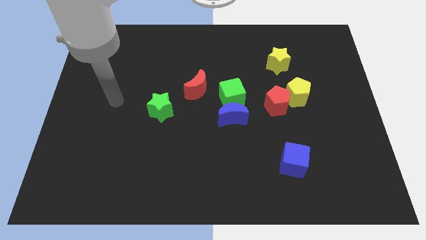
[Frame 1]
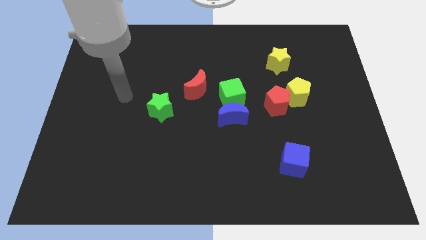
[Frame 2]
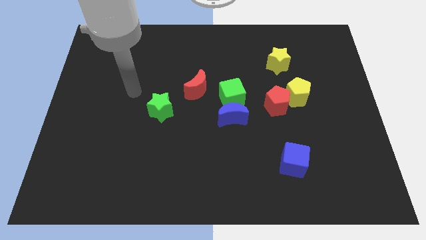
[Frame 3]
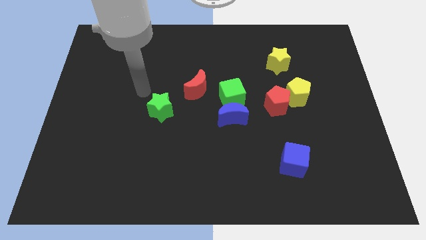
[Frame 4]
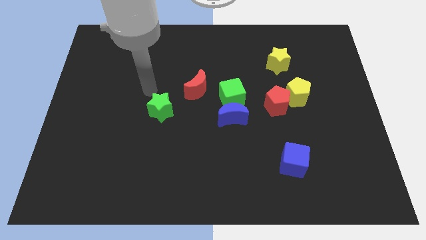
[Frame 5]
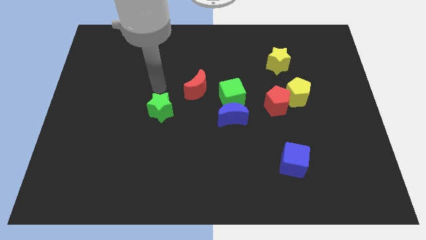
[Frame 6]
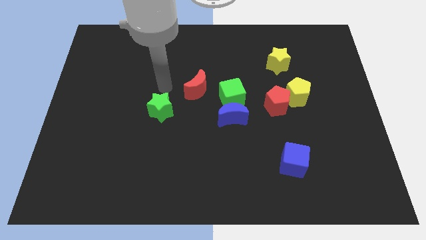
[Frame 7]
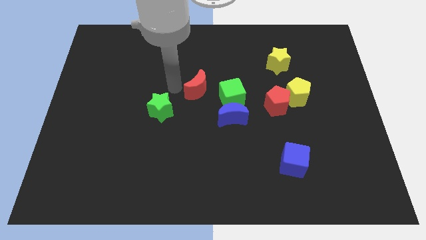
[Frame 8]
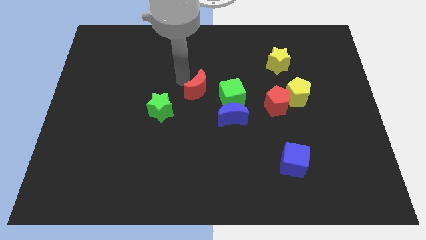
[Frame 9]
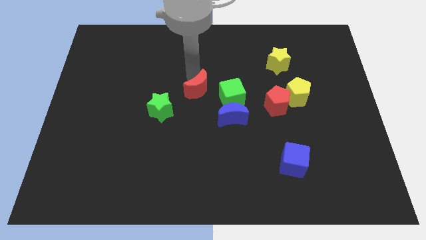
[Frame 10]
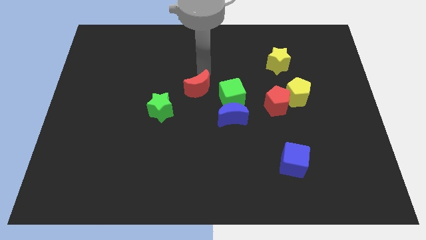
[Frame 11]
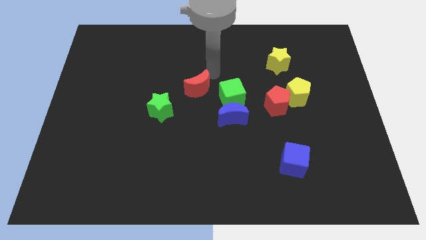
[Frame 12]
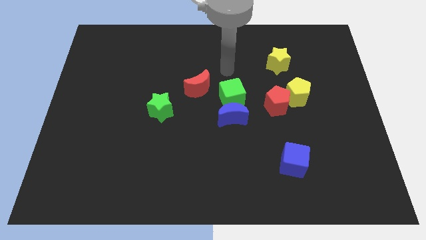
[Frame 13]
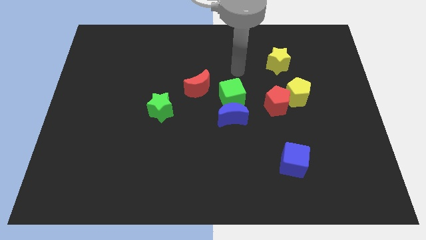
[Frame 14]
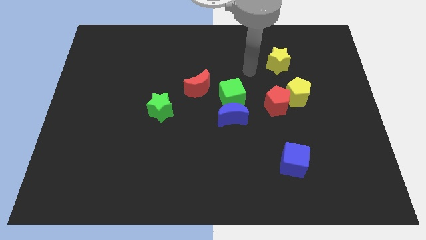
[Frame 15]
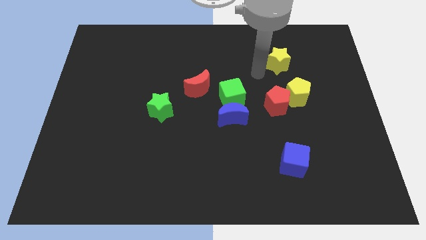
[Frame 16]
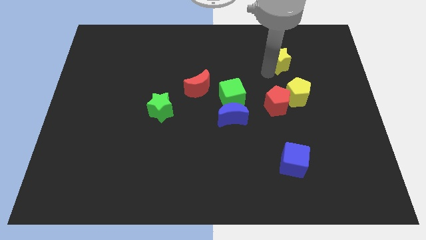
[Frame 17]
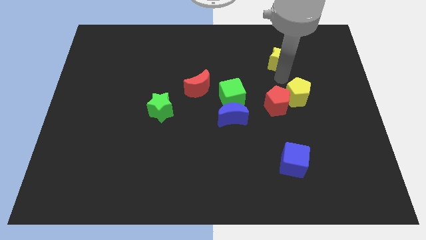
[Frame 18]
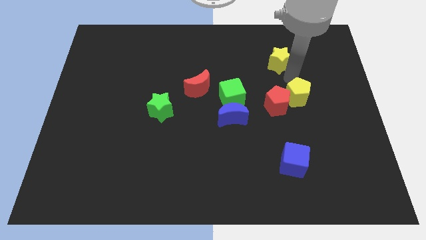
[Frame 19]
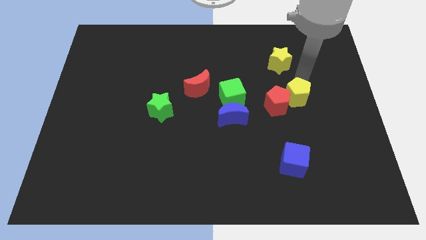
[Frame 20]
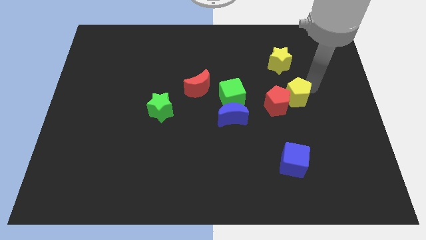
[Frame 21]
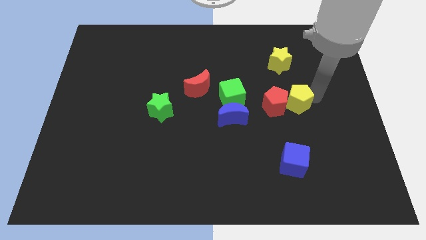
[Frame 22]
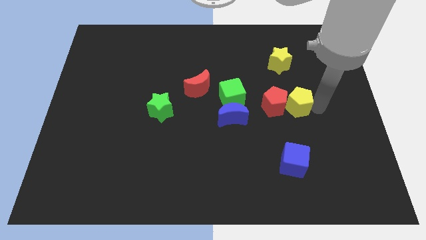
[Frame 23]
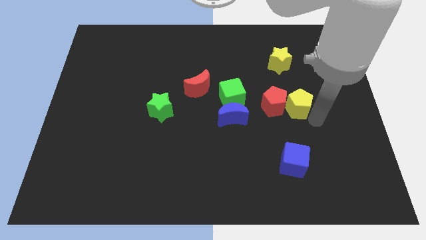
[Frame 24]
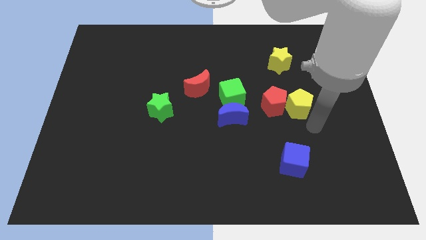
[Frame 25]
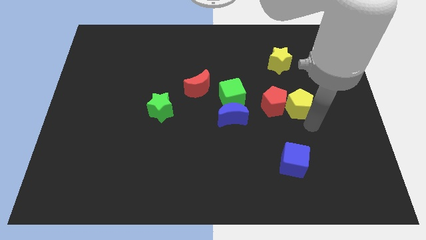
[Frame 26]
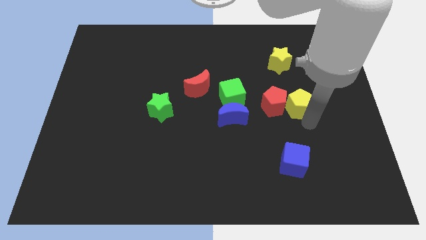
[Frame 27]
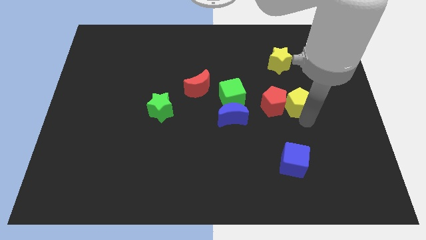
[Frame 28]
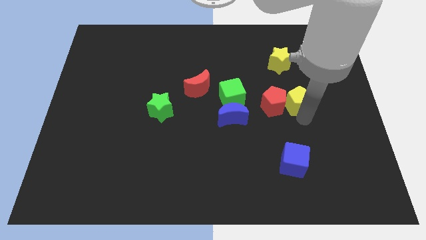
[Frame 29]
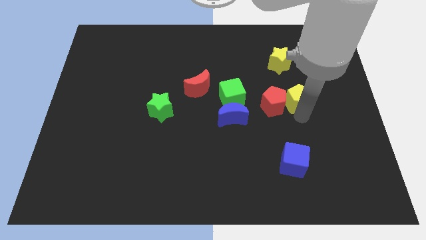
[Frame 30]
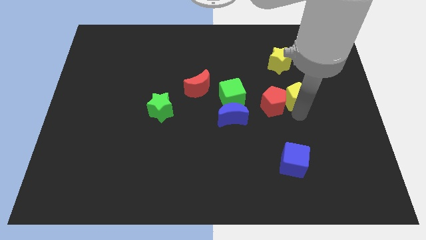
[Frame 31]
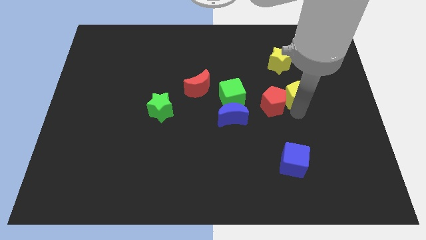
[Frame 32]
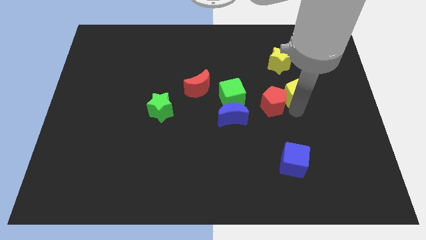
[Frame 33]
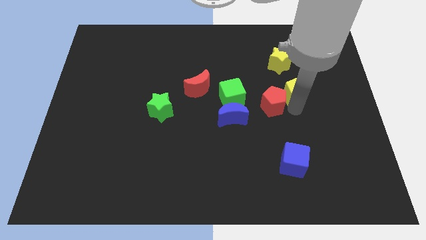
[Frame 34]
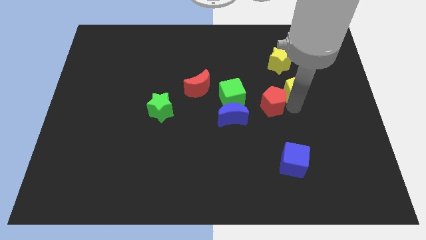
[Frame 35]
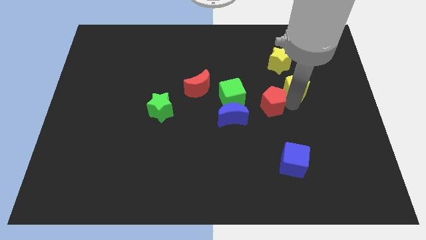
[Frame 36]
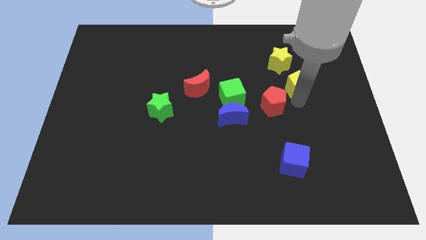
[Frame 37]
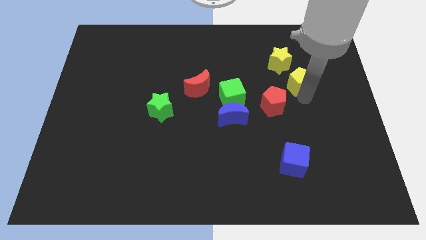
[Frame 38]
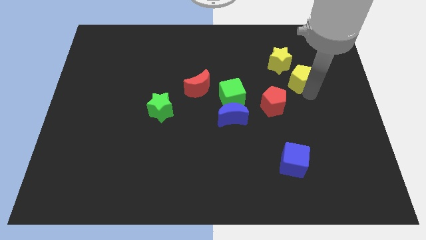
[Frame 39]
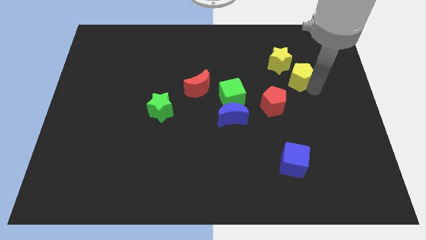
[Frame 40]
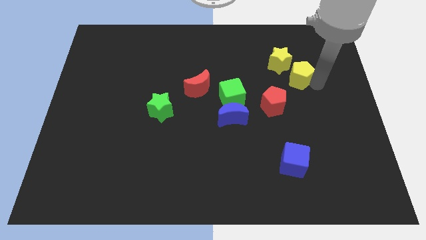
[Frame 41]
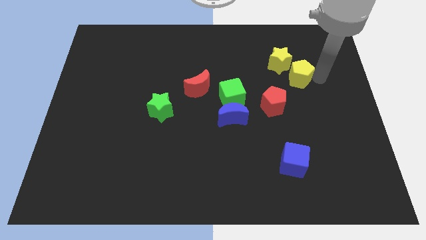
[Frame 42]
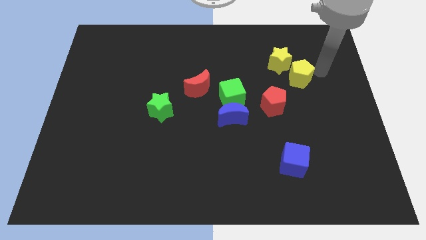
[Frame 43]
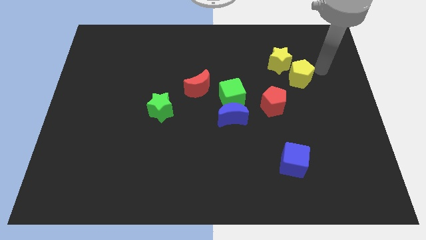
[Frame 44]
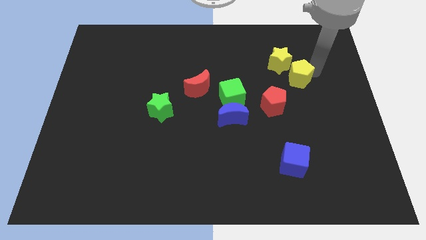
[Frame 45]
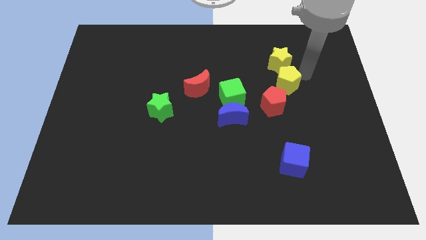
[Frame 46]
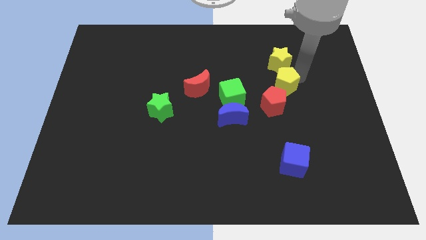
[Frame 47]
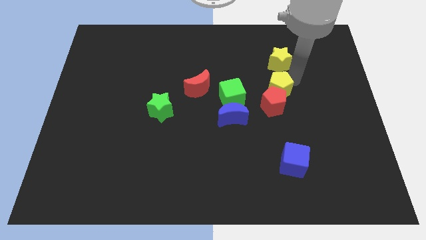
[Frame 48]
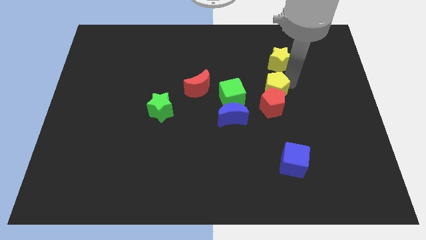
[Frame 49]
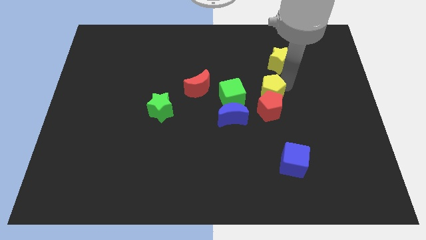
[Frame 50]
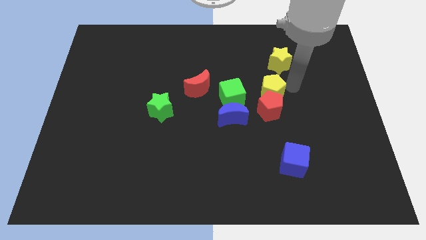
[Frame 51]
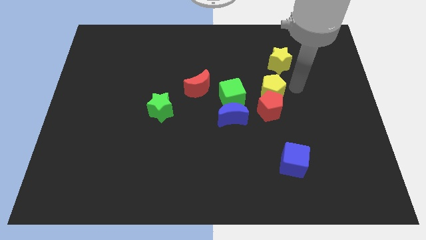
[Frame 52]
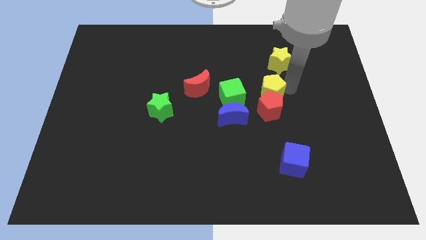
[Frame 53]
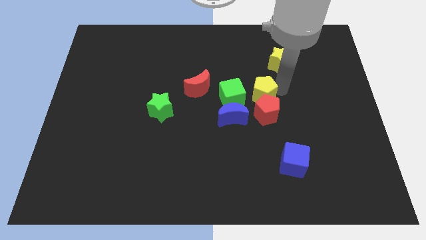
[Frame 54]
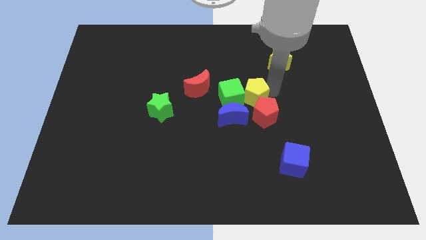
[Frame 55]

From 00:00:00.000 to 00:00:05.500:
put the yellow pentagon close to the green cube

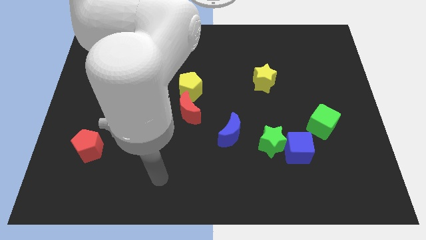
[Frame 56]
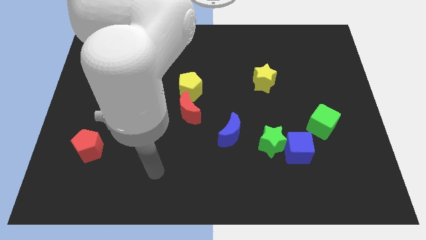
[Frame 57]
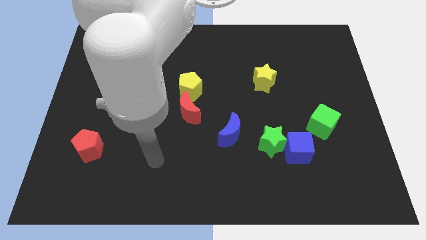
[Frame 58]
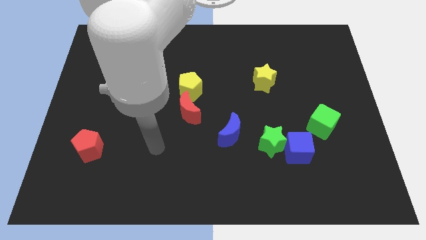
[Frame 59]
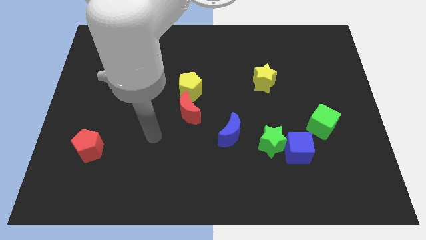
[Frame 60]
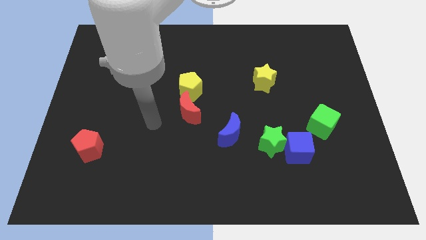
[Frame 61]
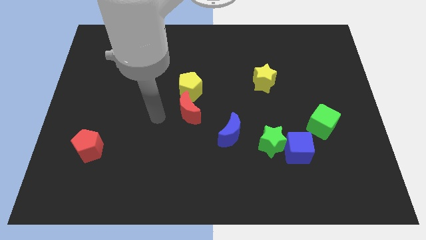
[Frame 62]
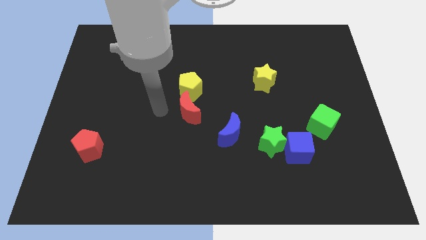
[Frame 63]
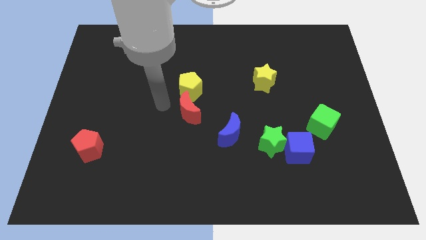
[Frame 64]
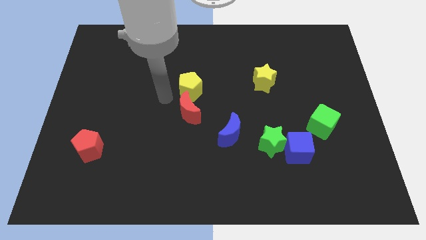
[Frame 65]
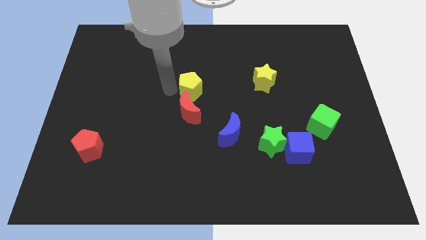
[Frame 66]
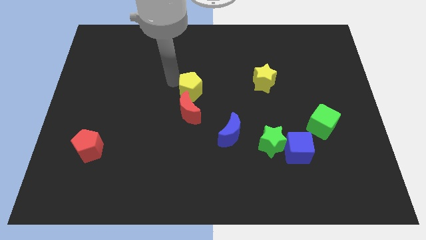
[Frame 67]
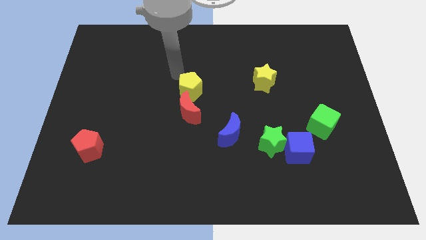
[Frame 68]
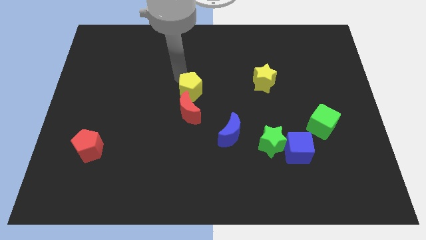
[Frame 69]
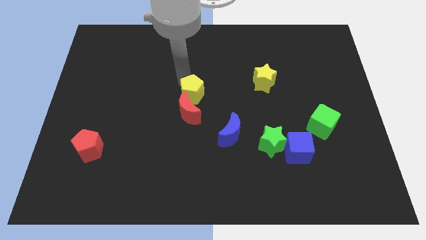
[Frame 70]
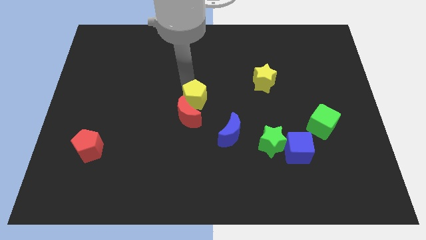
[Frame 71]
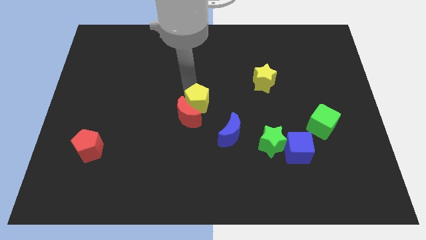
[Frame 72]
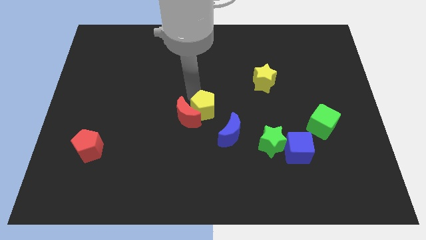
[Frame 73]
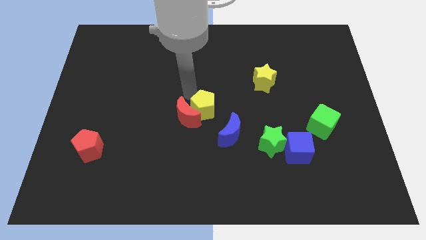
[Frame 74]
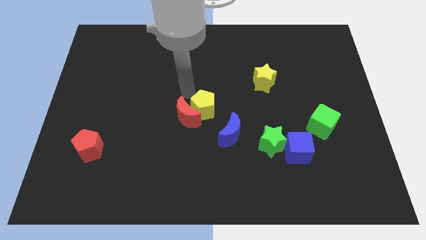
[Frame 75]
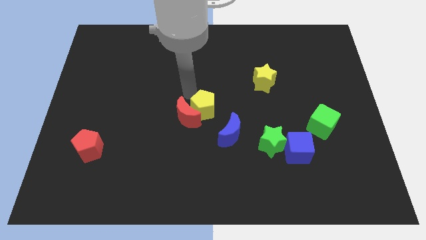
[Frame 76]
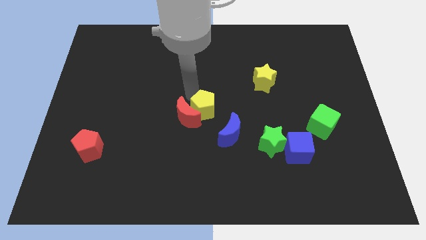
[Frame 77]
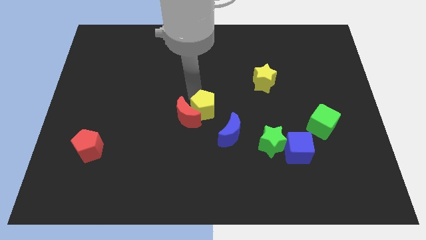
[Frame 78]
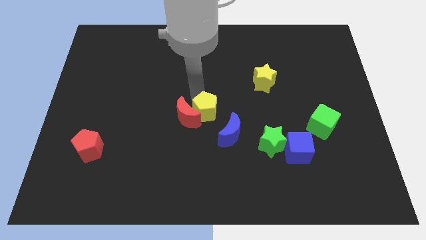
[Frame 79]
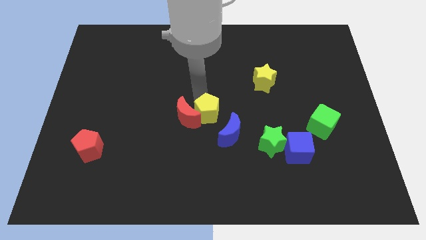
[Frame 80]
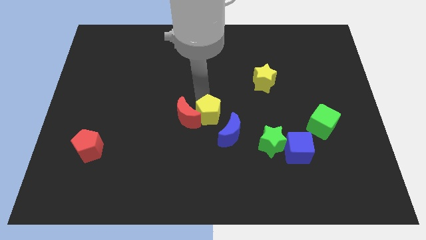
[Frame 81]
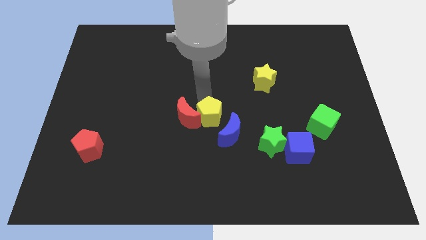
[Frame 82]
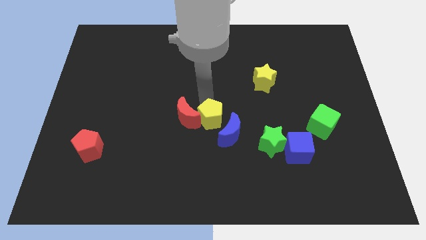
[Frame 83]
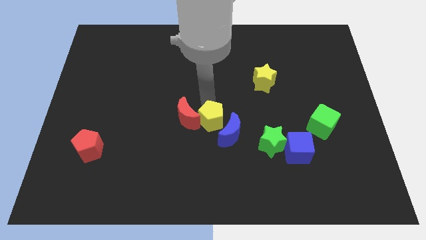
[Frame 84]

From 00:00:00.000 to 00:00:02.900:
push the yellow pentagon next to the blue moon
